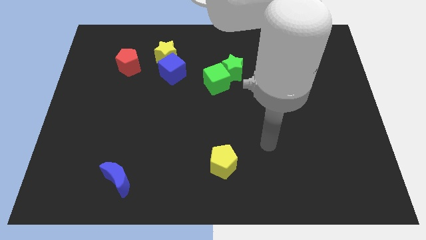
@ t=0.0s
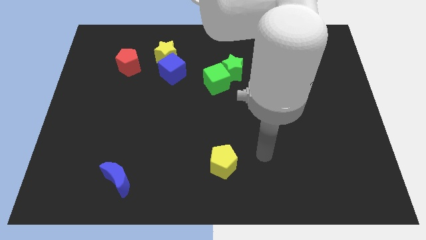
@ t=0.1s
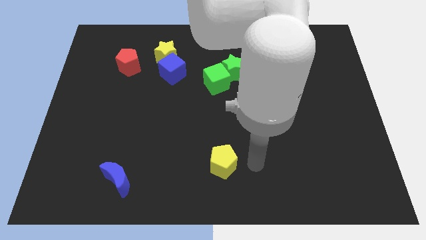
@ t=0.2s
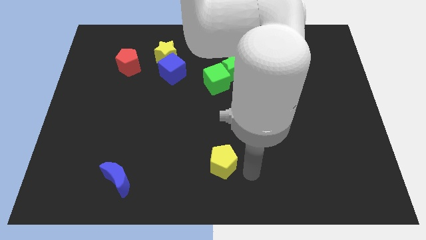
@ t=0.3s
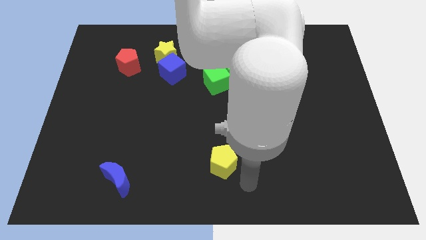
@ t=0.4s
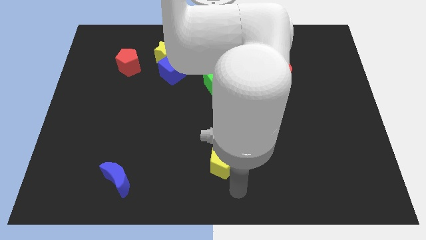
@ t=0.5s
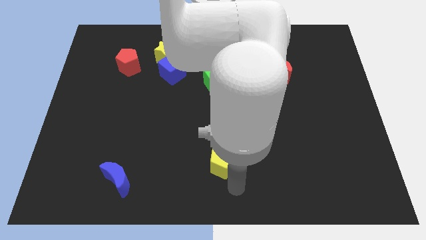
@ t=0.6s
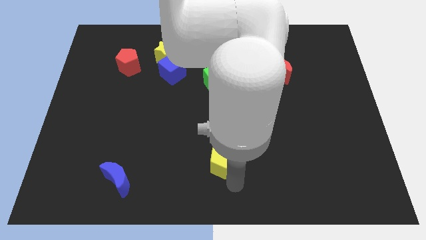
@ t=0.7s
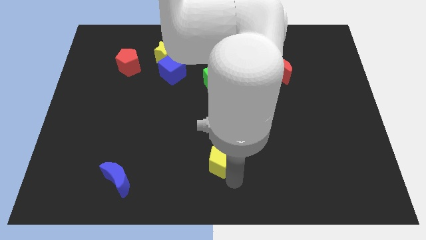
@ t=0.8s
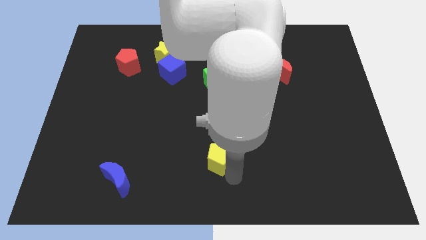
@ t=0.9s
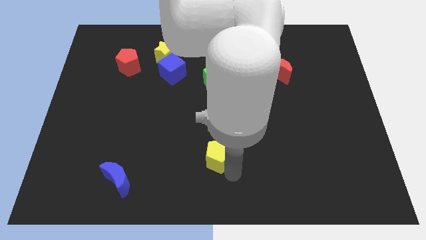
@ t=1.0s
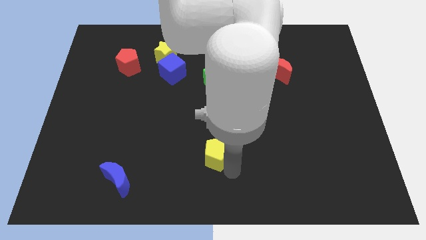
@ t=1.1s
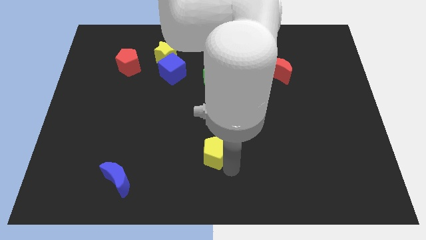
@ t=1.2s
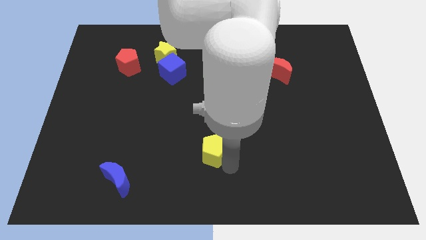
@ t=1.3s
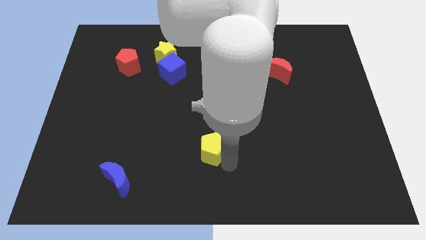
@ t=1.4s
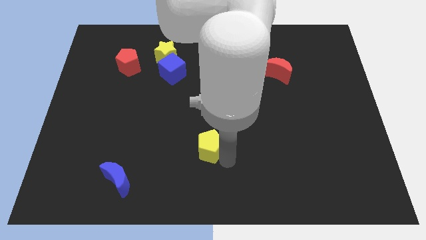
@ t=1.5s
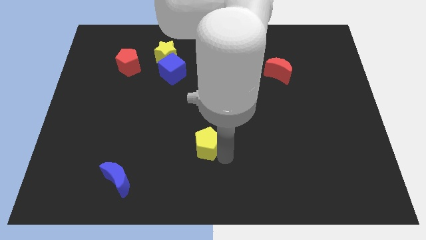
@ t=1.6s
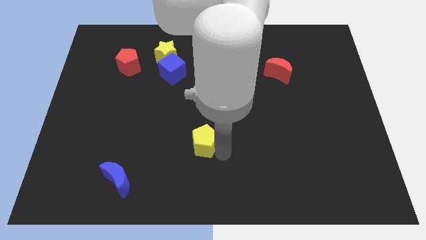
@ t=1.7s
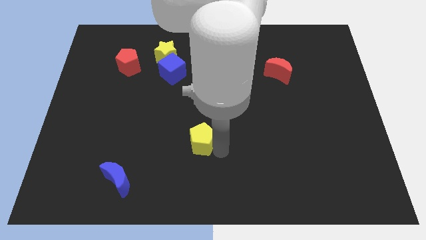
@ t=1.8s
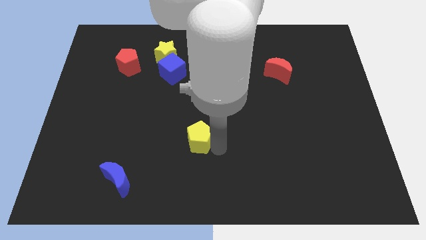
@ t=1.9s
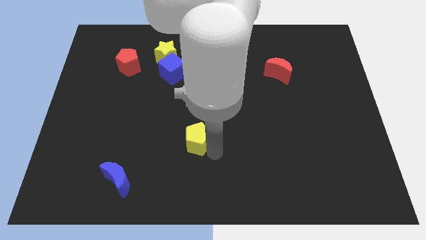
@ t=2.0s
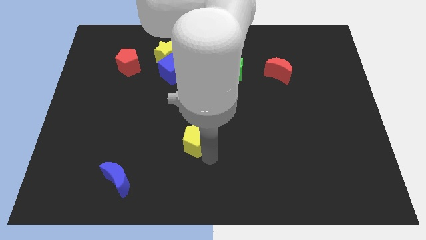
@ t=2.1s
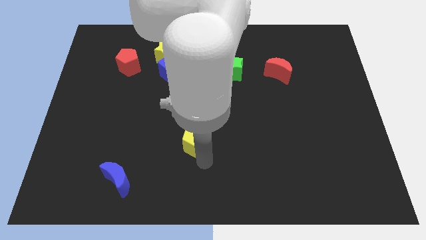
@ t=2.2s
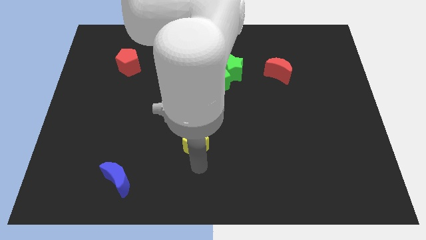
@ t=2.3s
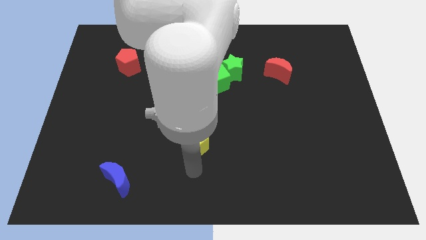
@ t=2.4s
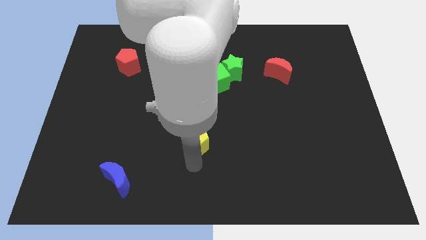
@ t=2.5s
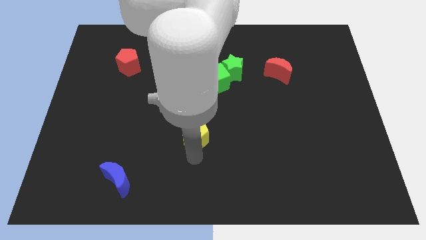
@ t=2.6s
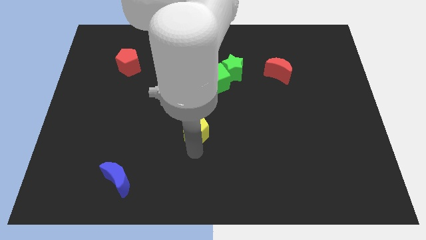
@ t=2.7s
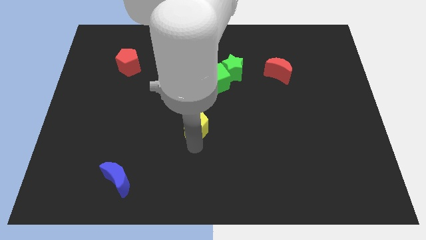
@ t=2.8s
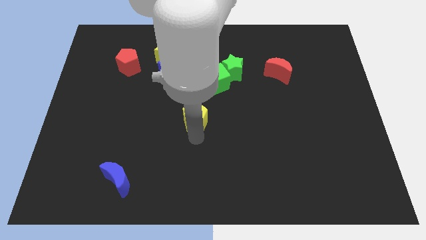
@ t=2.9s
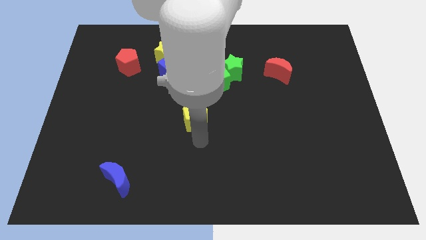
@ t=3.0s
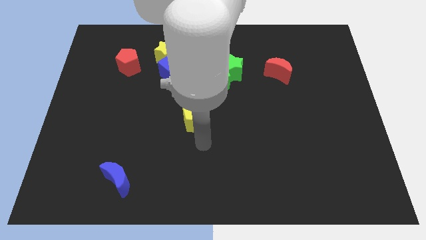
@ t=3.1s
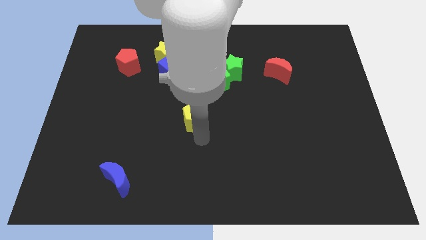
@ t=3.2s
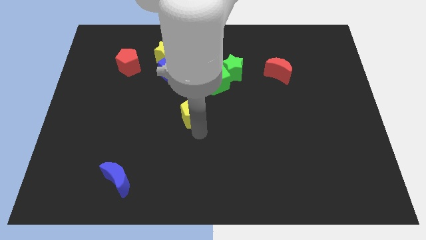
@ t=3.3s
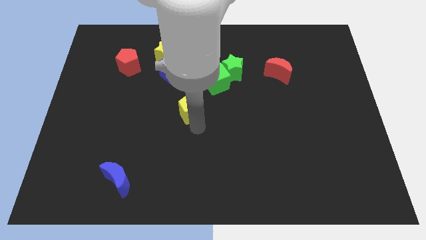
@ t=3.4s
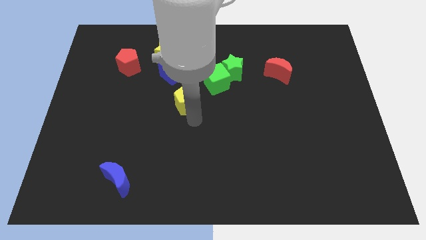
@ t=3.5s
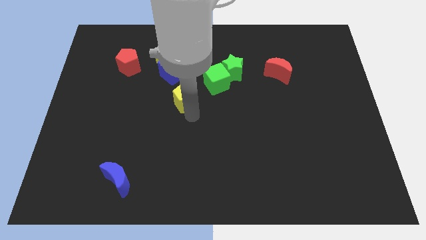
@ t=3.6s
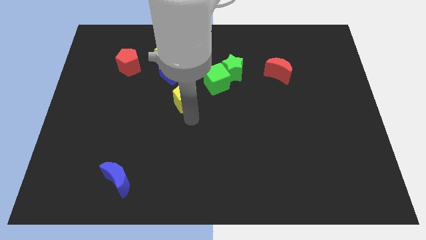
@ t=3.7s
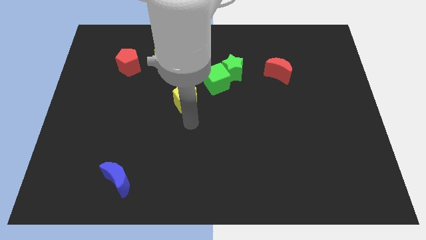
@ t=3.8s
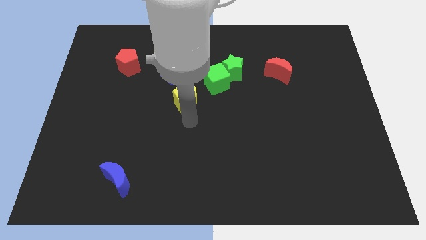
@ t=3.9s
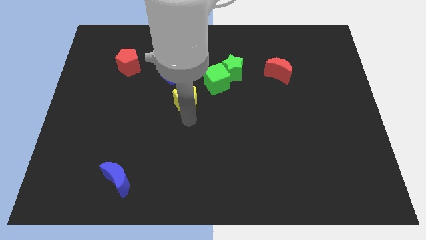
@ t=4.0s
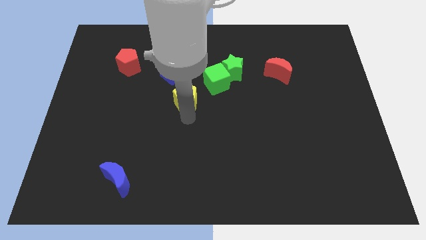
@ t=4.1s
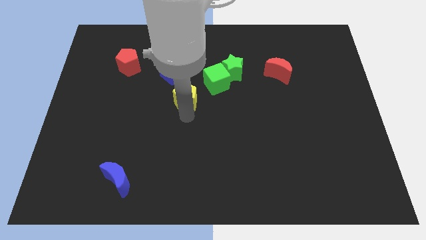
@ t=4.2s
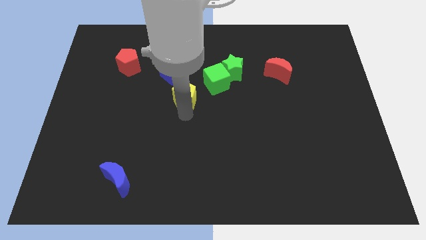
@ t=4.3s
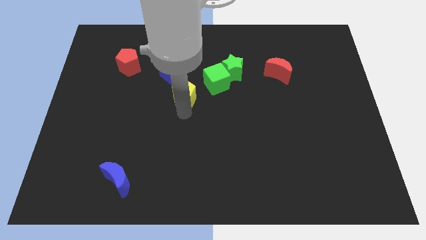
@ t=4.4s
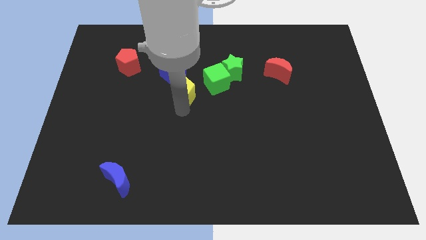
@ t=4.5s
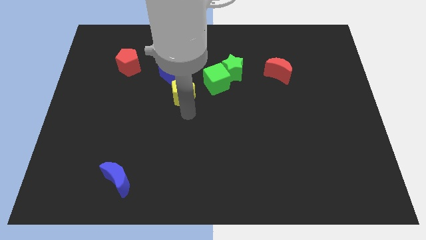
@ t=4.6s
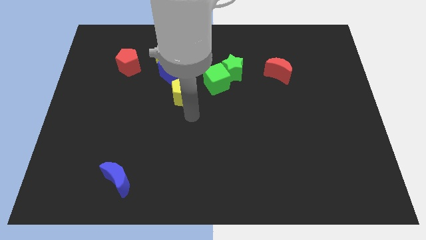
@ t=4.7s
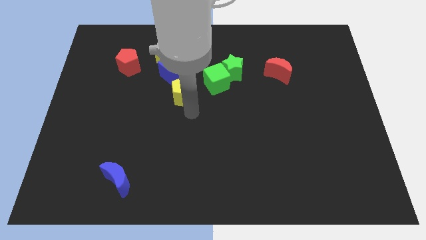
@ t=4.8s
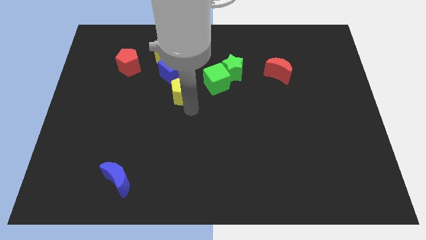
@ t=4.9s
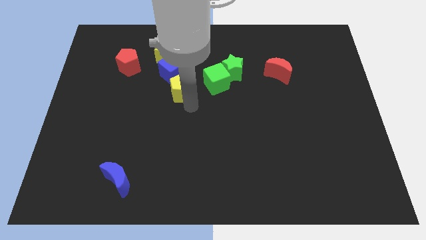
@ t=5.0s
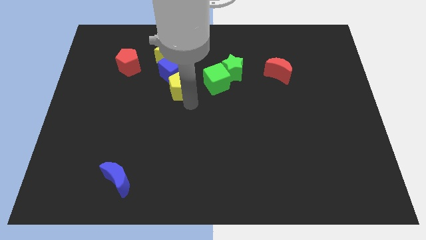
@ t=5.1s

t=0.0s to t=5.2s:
move the yellow pentagon to the blue cube

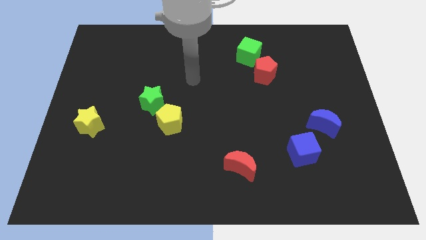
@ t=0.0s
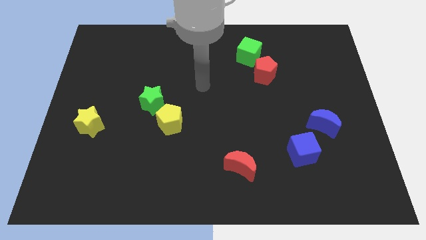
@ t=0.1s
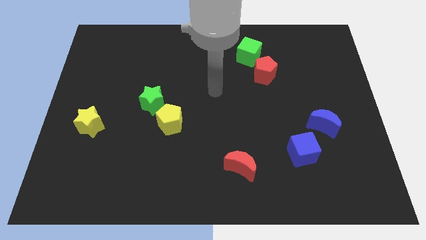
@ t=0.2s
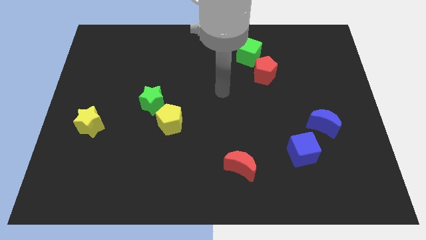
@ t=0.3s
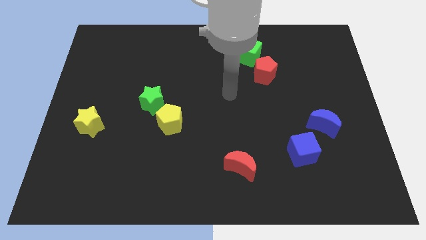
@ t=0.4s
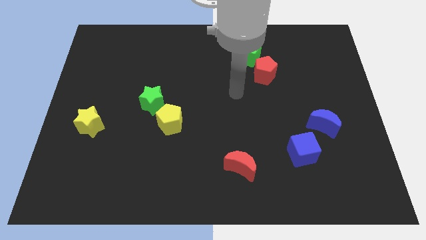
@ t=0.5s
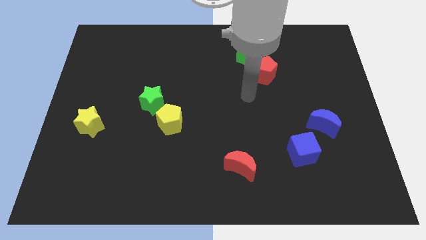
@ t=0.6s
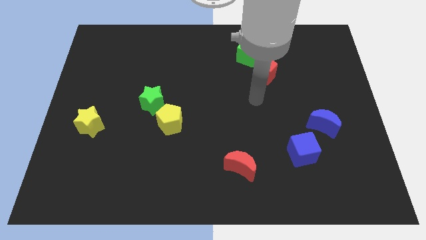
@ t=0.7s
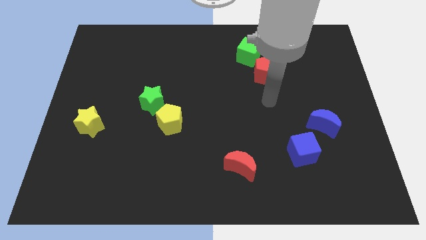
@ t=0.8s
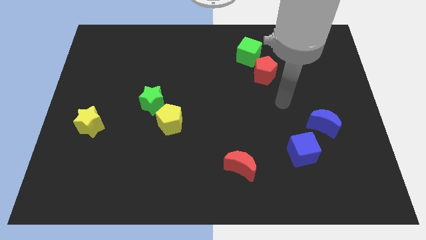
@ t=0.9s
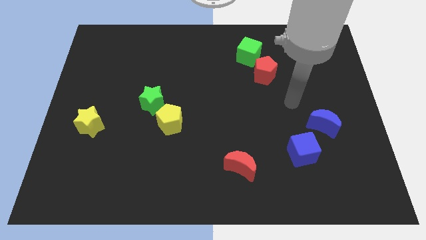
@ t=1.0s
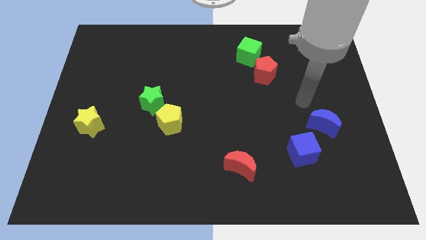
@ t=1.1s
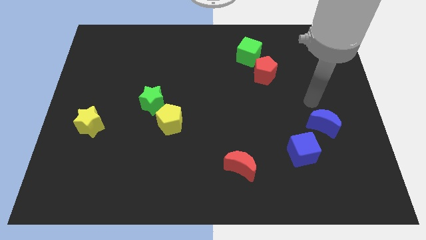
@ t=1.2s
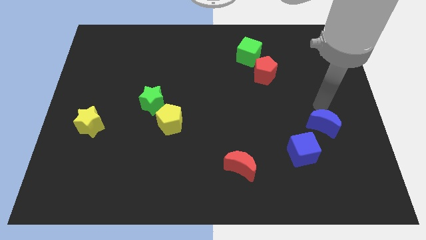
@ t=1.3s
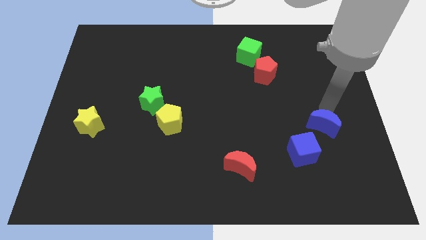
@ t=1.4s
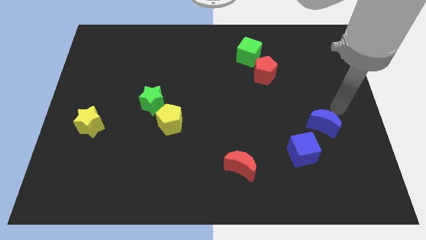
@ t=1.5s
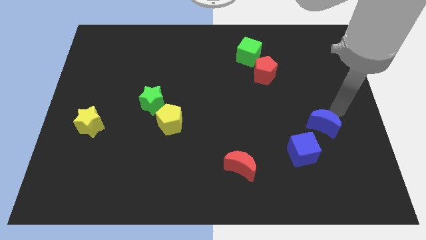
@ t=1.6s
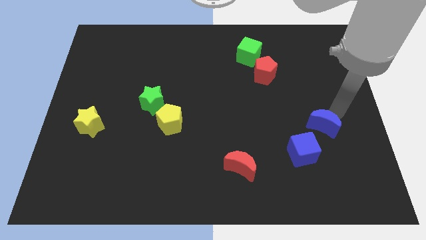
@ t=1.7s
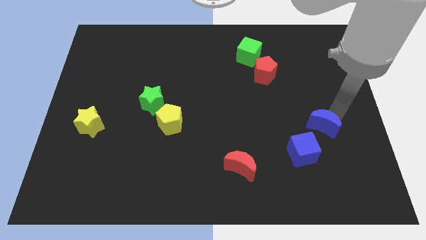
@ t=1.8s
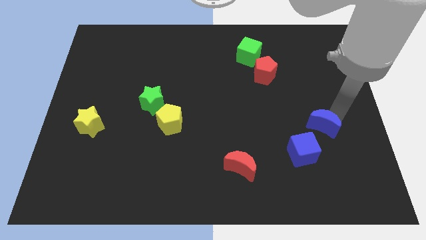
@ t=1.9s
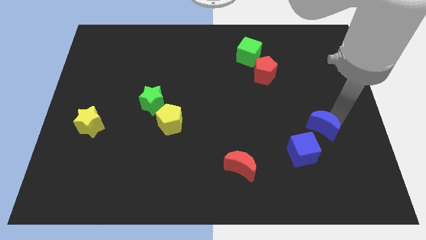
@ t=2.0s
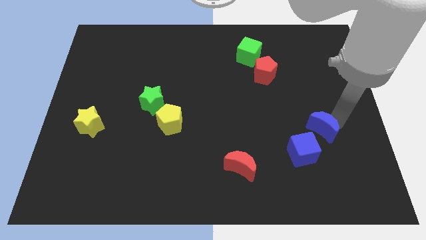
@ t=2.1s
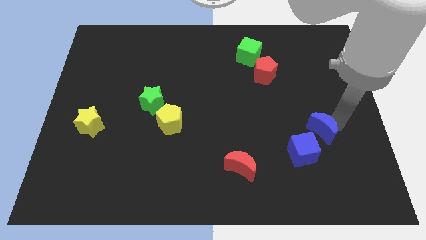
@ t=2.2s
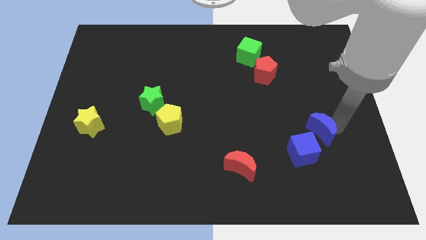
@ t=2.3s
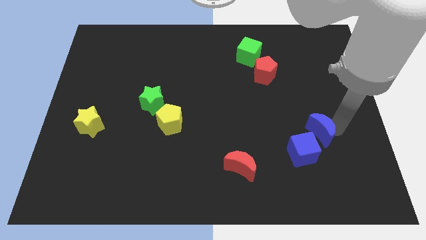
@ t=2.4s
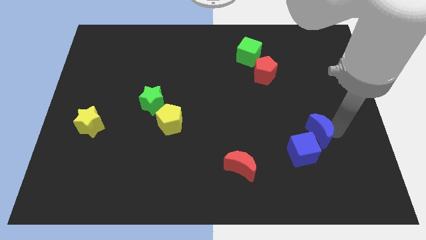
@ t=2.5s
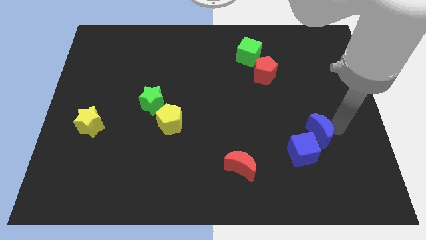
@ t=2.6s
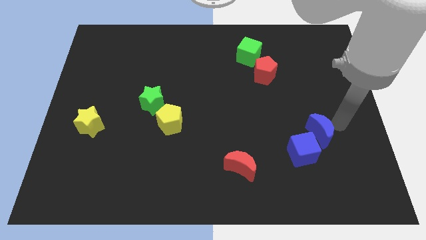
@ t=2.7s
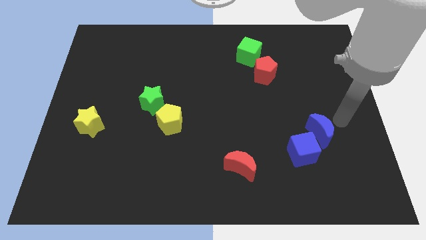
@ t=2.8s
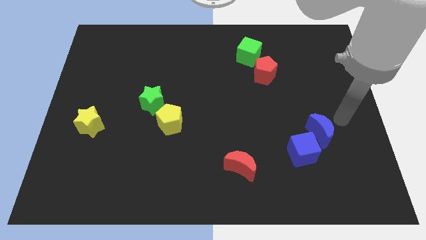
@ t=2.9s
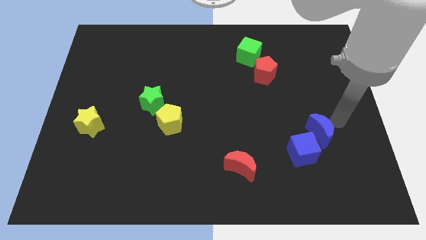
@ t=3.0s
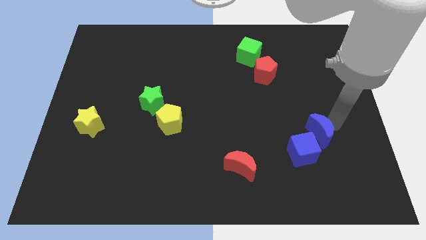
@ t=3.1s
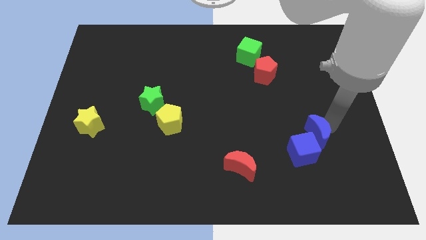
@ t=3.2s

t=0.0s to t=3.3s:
move the blue moon towards the blue cube
